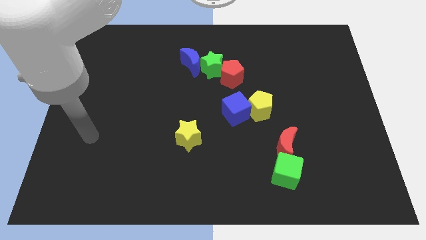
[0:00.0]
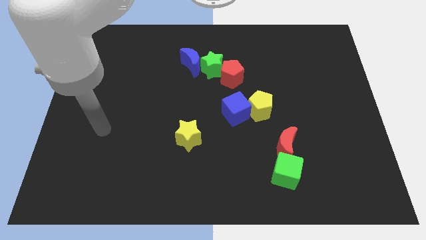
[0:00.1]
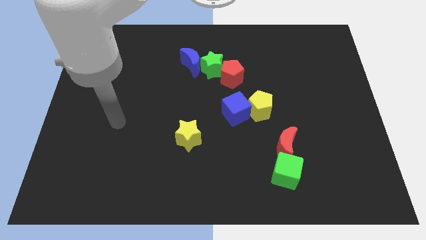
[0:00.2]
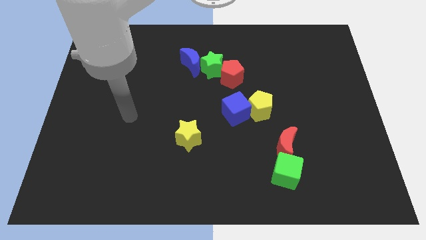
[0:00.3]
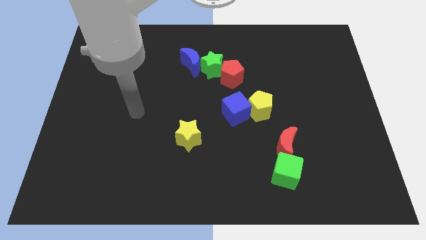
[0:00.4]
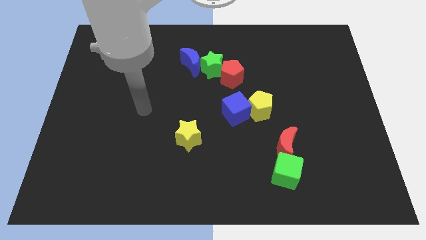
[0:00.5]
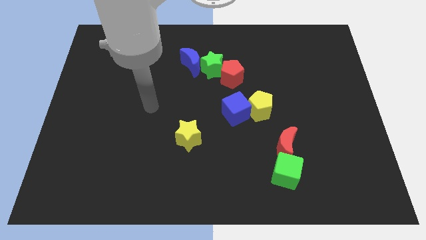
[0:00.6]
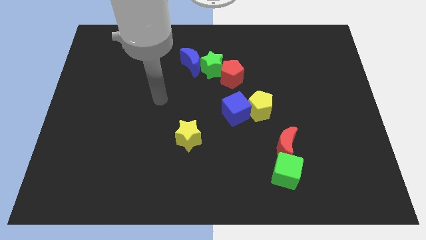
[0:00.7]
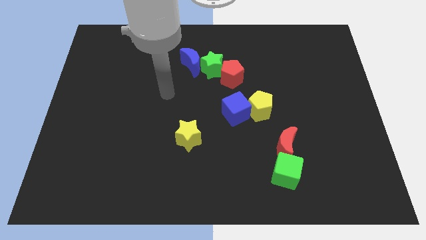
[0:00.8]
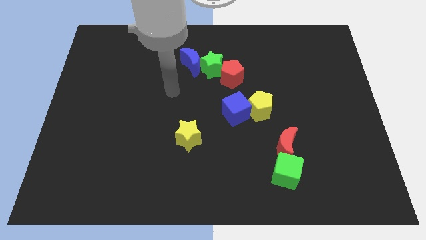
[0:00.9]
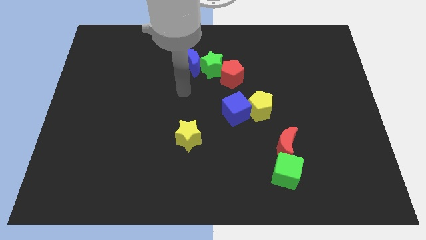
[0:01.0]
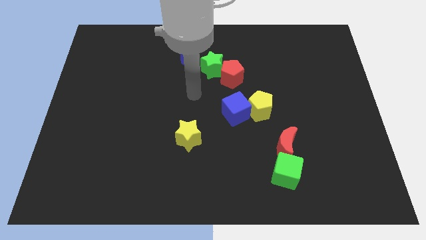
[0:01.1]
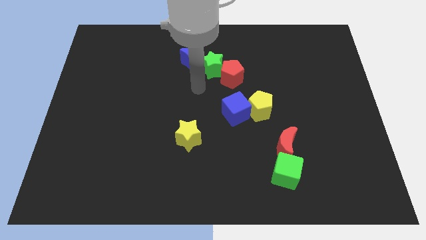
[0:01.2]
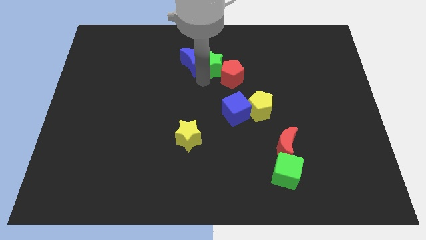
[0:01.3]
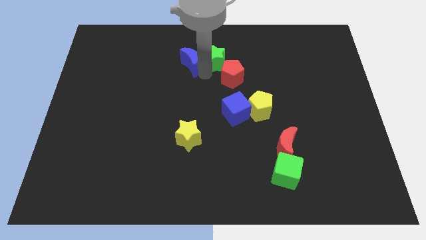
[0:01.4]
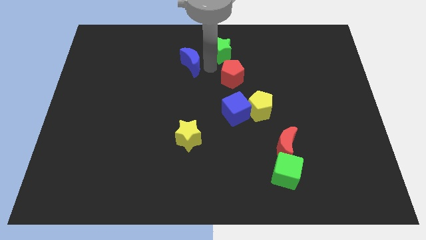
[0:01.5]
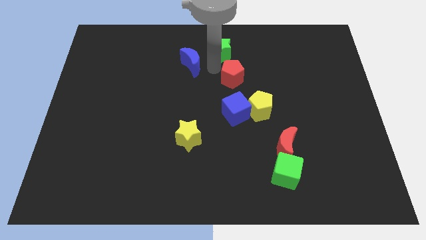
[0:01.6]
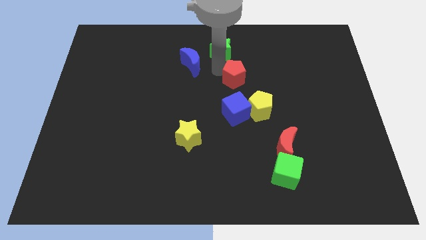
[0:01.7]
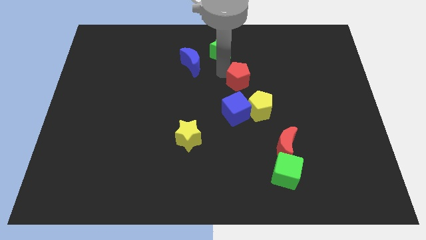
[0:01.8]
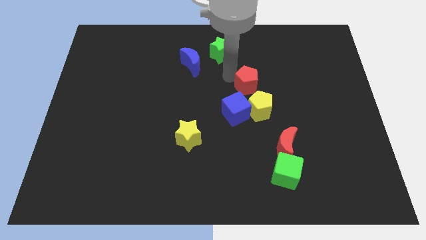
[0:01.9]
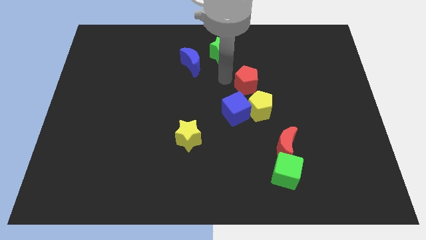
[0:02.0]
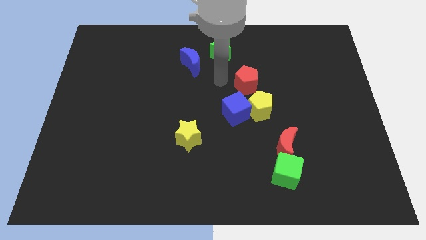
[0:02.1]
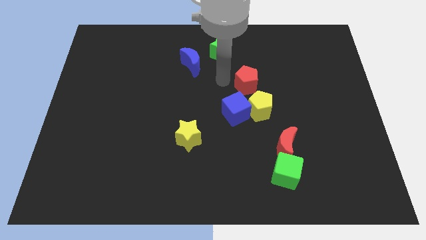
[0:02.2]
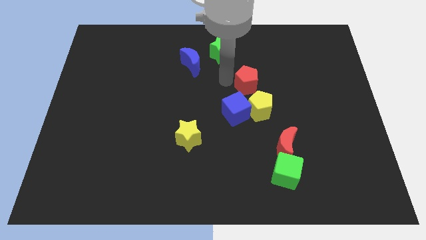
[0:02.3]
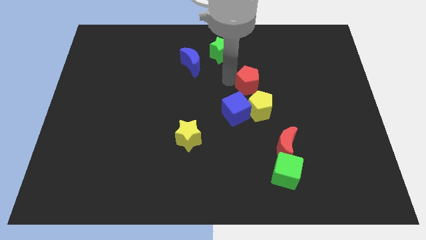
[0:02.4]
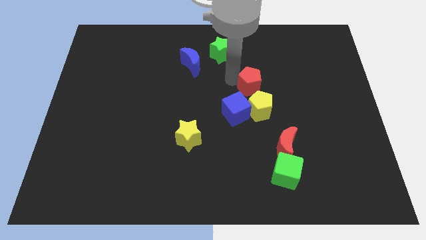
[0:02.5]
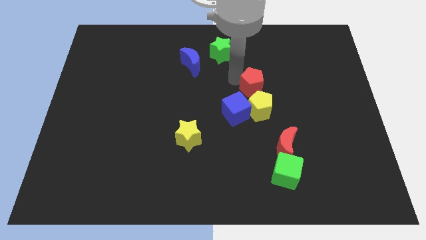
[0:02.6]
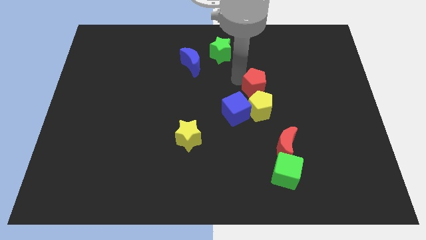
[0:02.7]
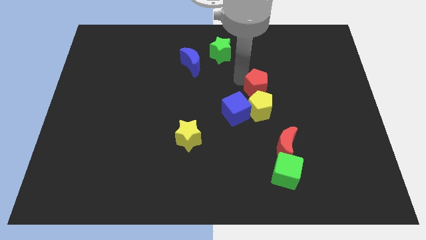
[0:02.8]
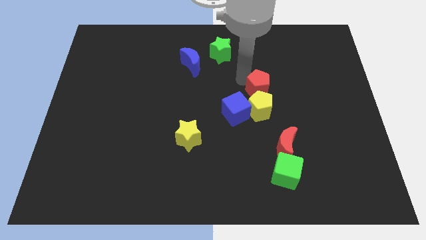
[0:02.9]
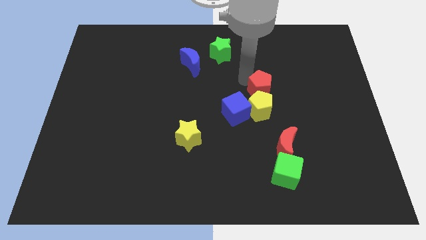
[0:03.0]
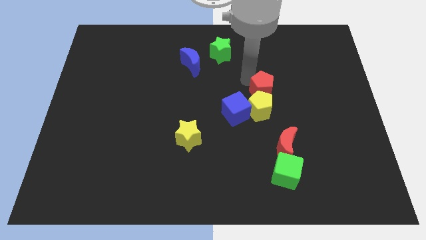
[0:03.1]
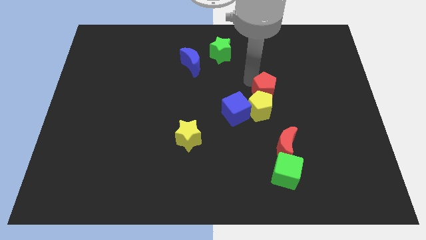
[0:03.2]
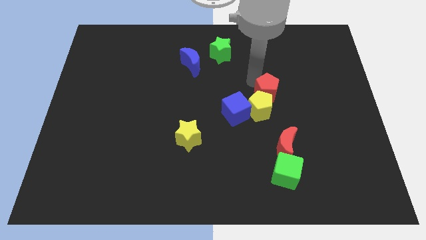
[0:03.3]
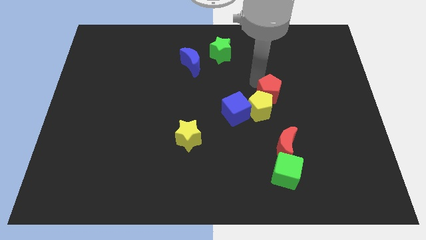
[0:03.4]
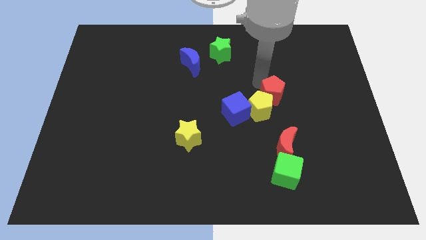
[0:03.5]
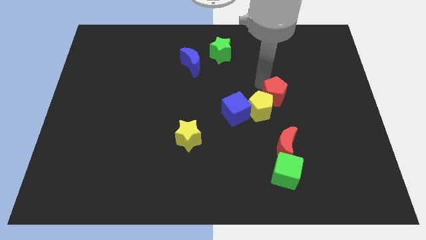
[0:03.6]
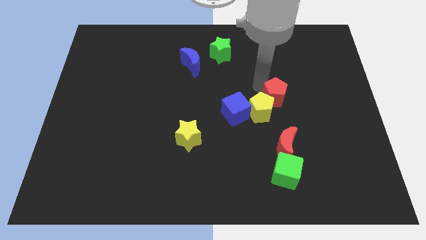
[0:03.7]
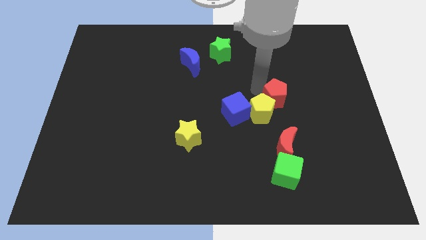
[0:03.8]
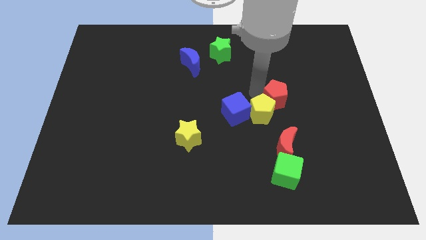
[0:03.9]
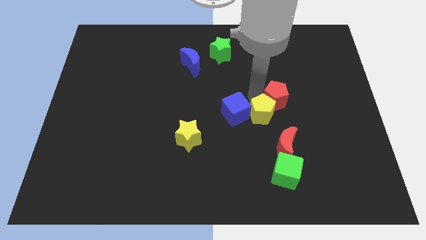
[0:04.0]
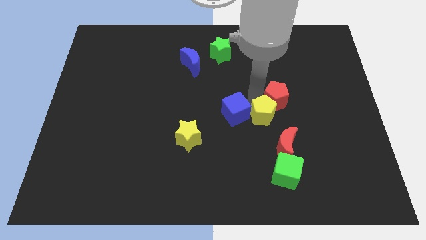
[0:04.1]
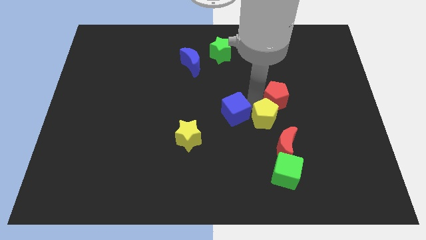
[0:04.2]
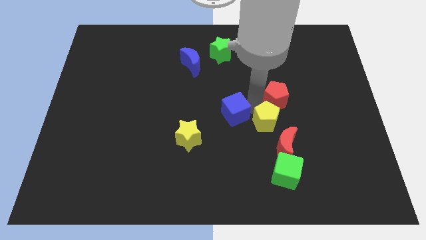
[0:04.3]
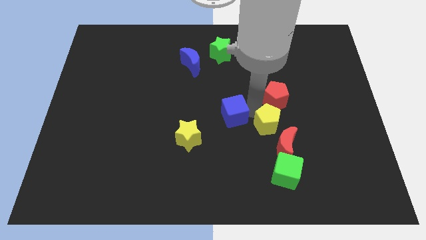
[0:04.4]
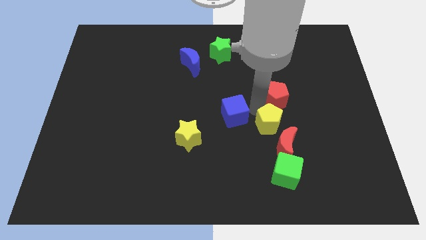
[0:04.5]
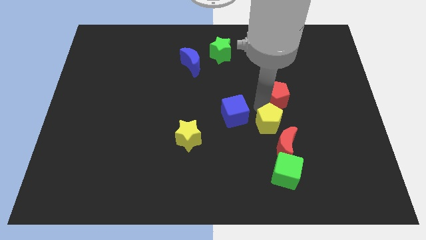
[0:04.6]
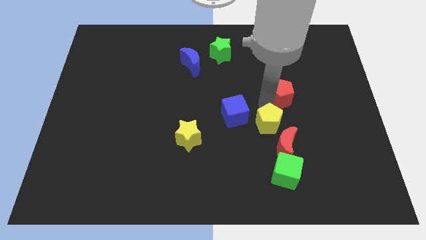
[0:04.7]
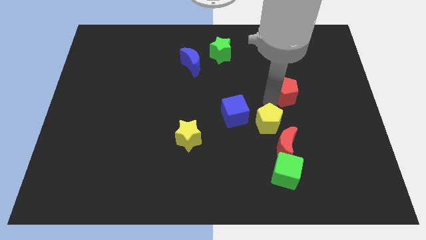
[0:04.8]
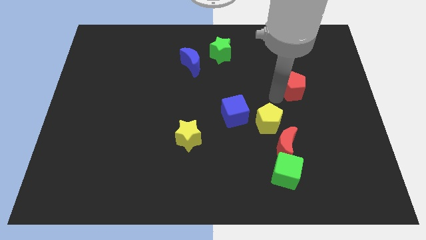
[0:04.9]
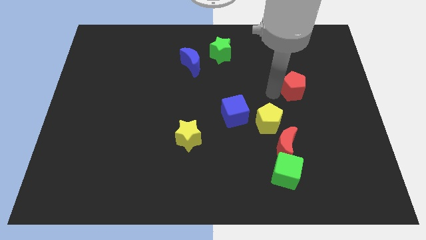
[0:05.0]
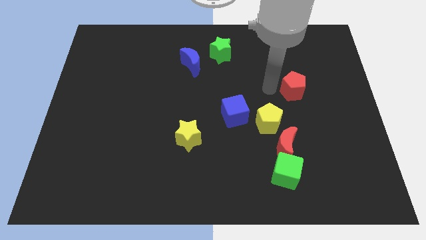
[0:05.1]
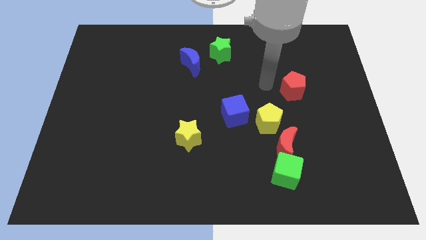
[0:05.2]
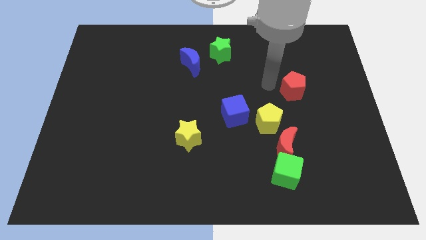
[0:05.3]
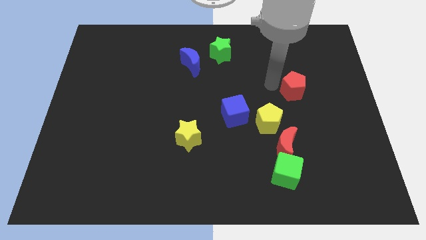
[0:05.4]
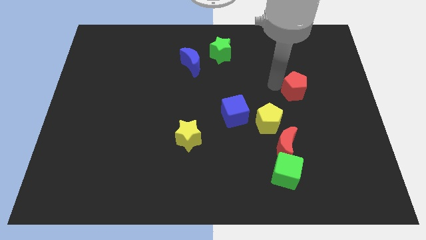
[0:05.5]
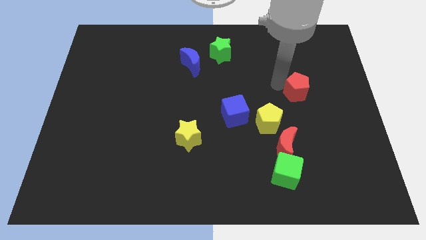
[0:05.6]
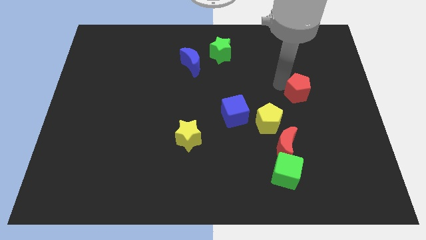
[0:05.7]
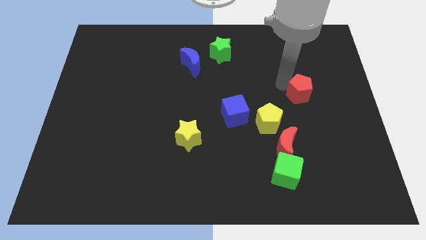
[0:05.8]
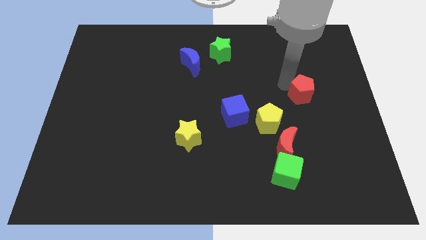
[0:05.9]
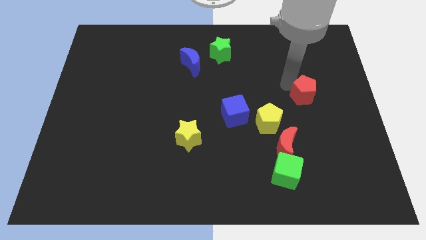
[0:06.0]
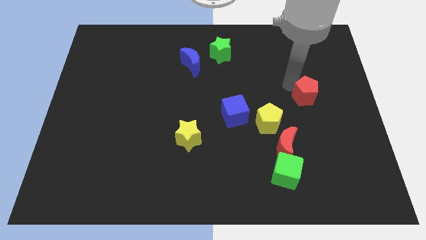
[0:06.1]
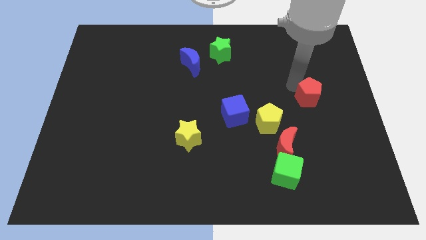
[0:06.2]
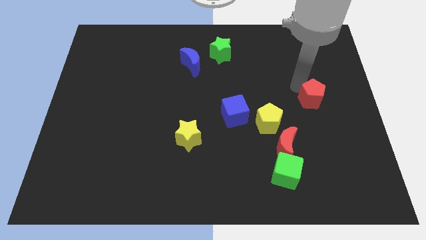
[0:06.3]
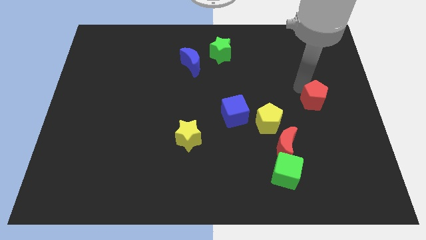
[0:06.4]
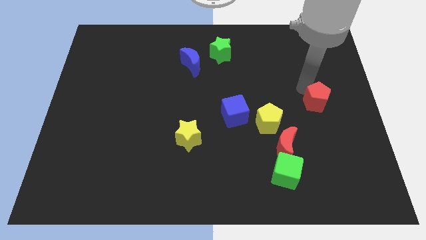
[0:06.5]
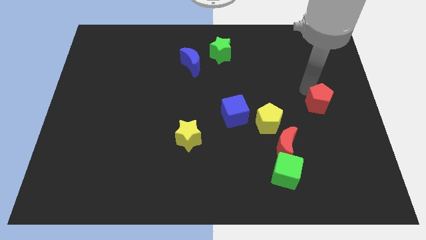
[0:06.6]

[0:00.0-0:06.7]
put the red pentagon to the right side of the board
